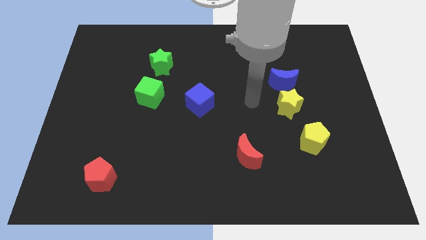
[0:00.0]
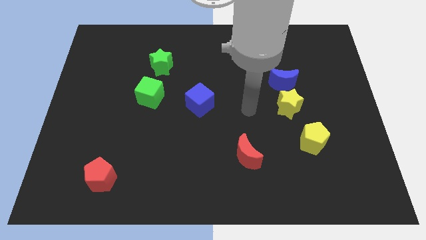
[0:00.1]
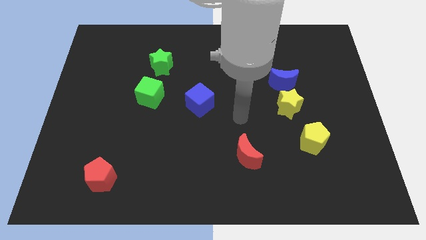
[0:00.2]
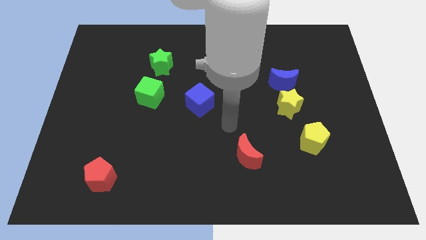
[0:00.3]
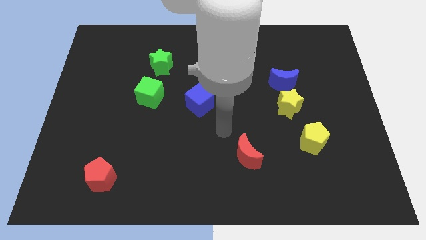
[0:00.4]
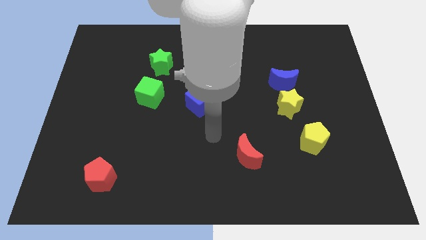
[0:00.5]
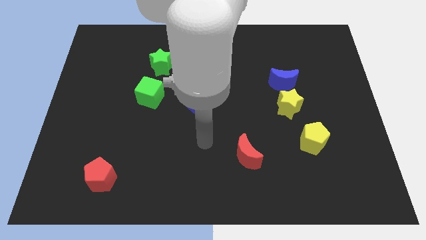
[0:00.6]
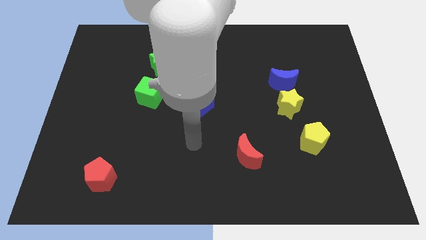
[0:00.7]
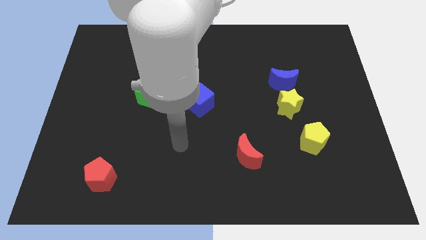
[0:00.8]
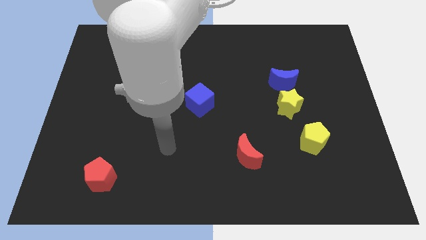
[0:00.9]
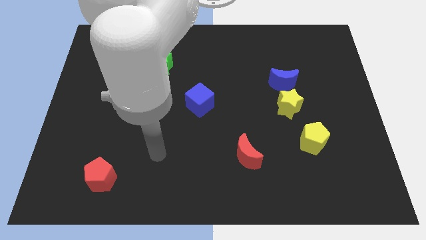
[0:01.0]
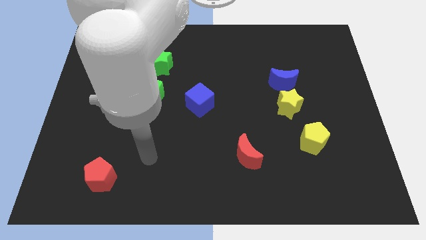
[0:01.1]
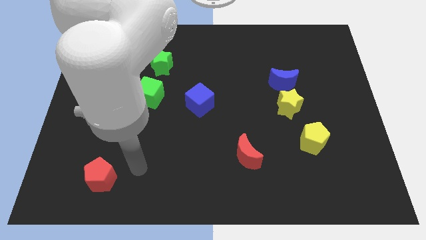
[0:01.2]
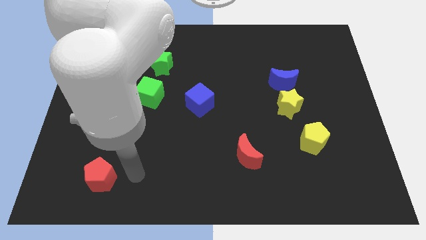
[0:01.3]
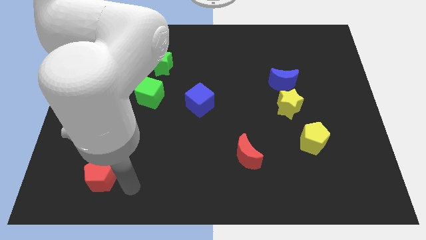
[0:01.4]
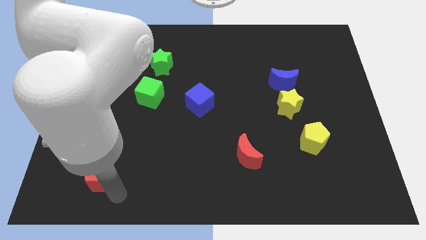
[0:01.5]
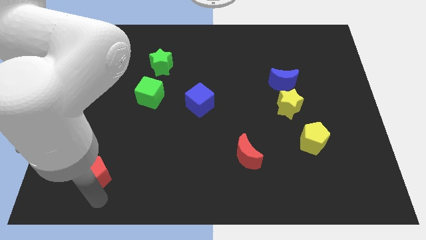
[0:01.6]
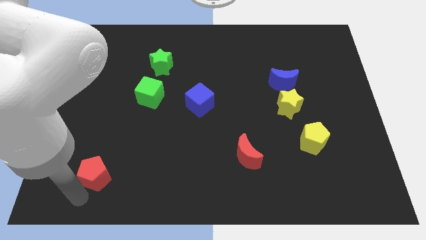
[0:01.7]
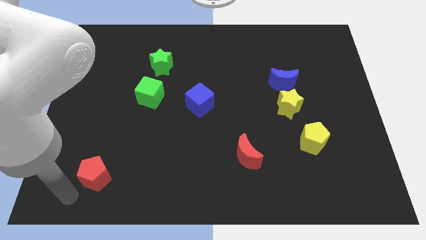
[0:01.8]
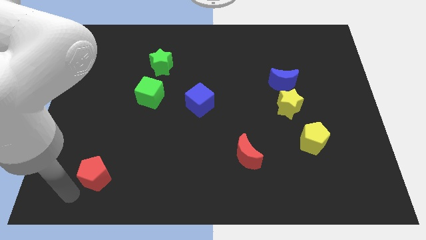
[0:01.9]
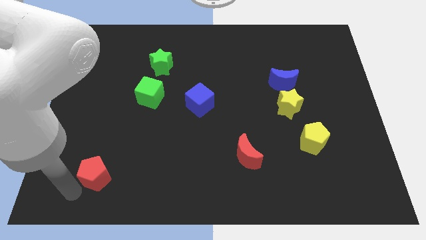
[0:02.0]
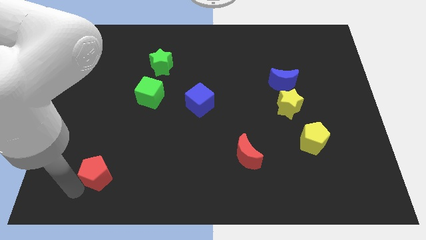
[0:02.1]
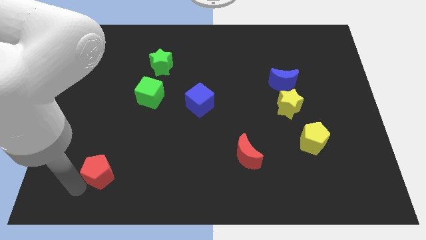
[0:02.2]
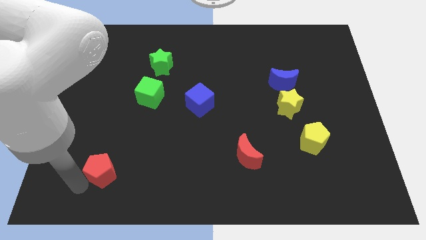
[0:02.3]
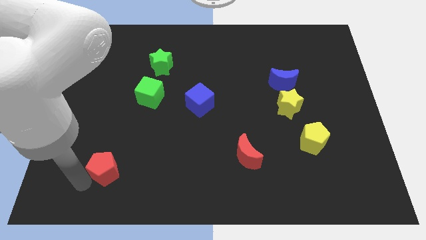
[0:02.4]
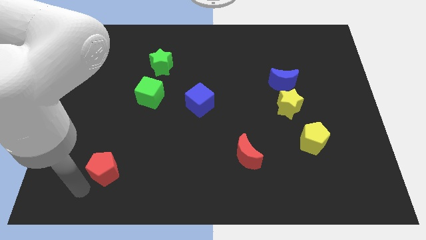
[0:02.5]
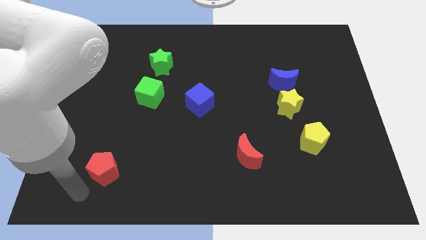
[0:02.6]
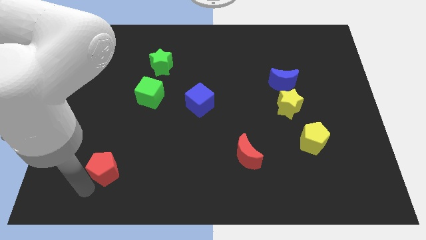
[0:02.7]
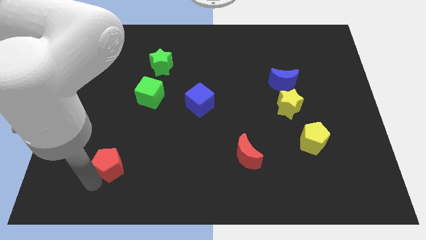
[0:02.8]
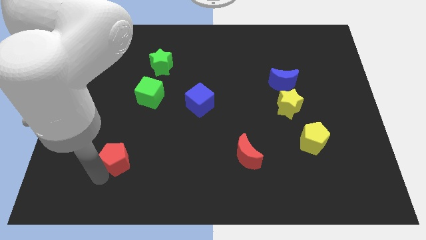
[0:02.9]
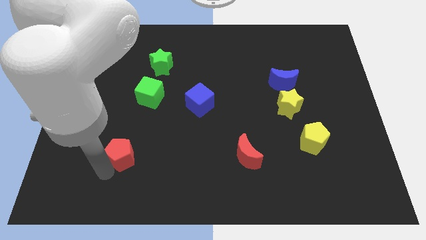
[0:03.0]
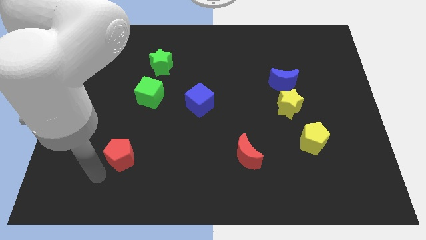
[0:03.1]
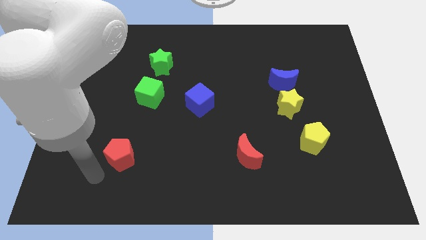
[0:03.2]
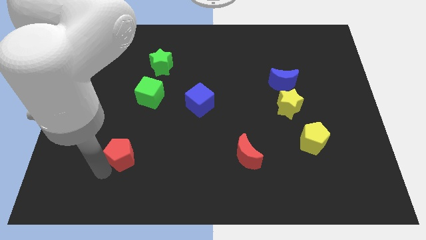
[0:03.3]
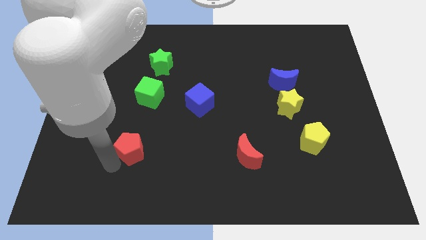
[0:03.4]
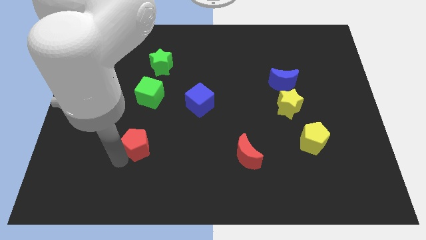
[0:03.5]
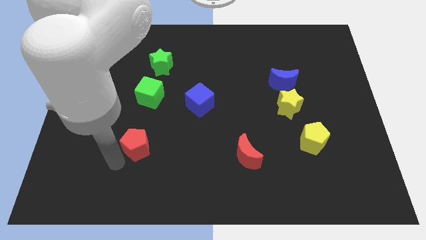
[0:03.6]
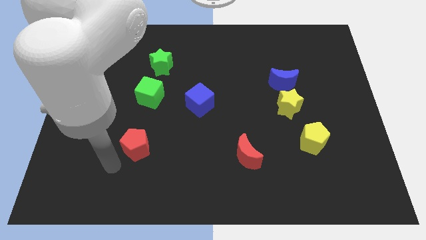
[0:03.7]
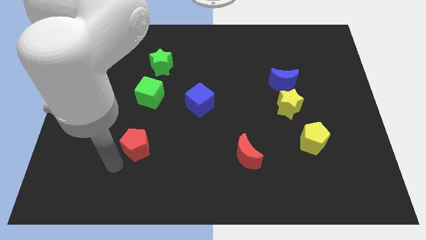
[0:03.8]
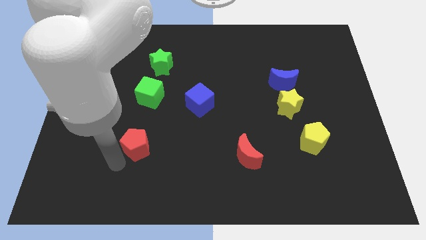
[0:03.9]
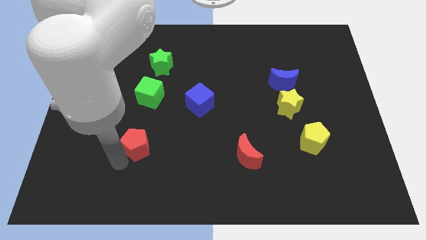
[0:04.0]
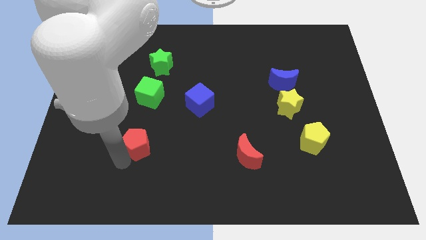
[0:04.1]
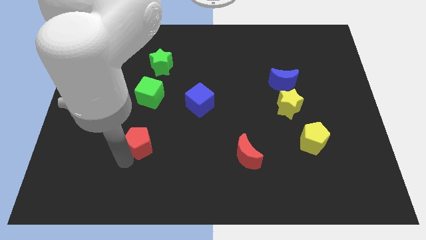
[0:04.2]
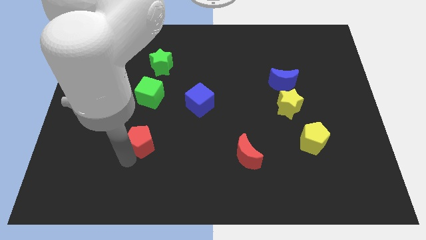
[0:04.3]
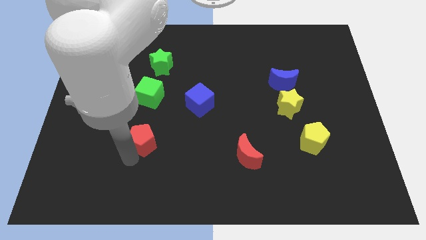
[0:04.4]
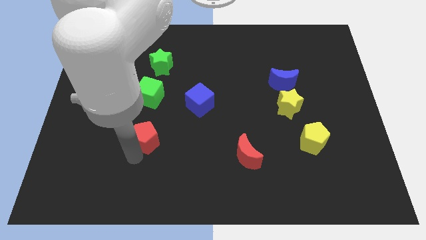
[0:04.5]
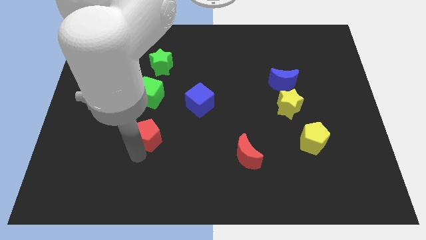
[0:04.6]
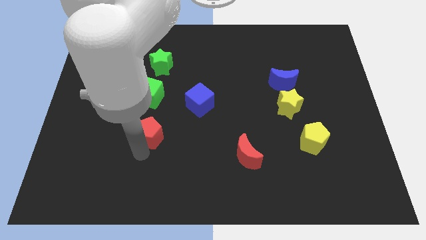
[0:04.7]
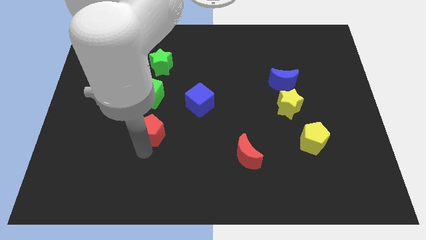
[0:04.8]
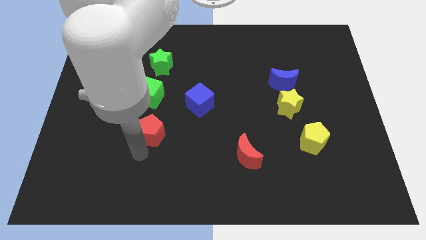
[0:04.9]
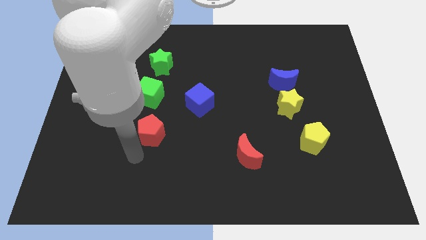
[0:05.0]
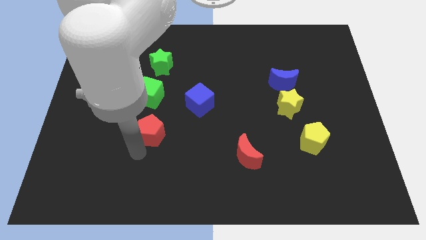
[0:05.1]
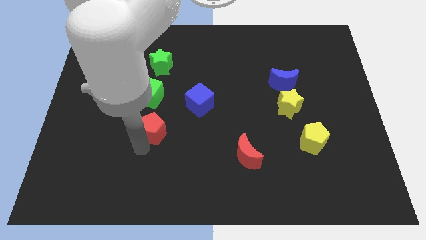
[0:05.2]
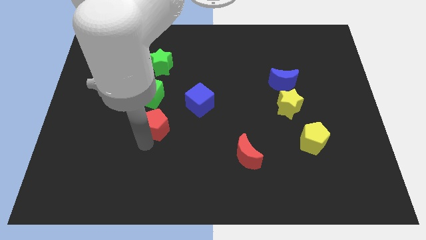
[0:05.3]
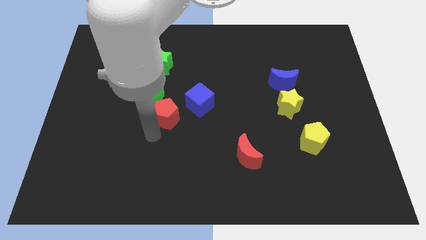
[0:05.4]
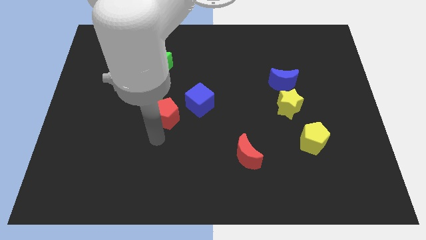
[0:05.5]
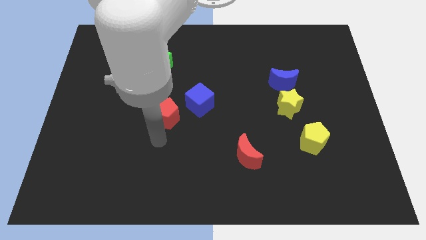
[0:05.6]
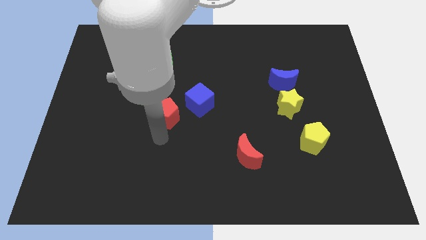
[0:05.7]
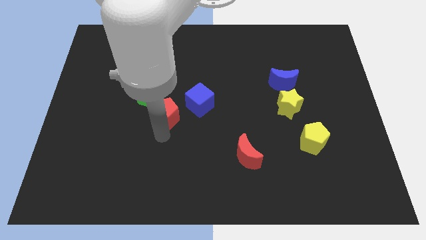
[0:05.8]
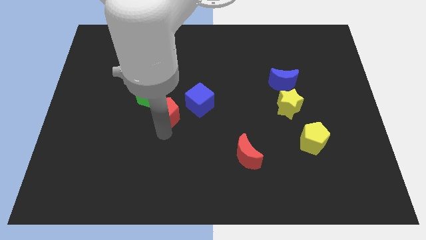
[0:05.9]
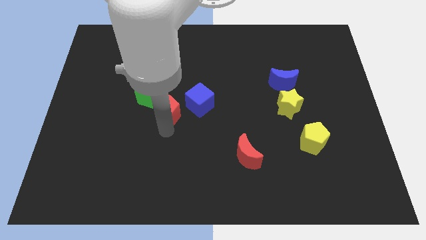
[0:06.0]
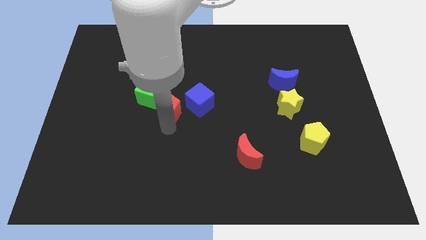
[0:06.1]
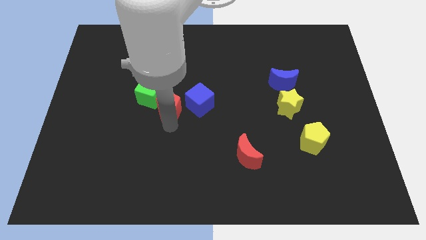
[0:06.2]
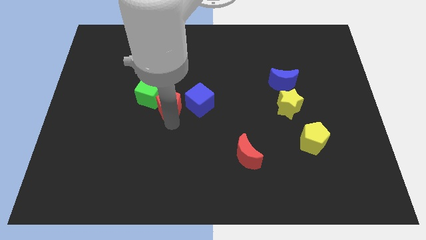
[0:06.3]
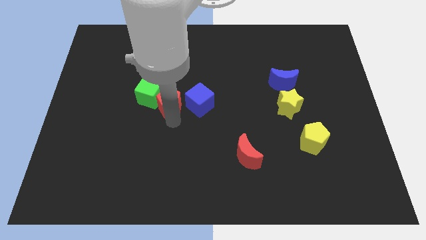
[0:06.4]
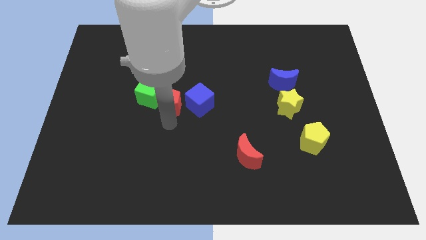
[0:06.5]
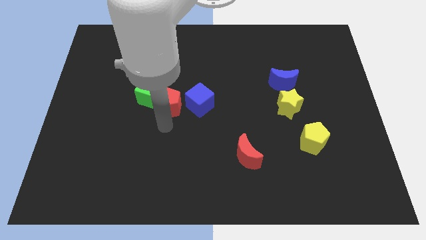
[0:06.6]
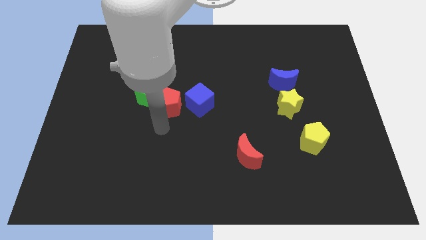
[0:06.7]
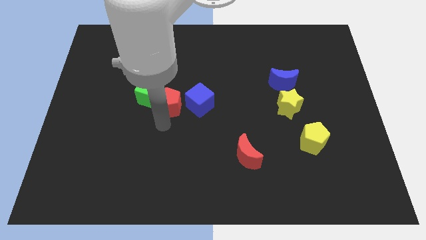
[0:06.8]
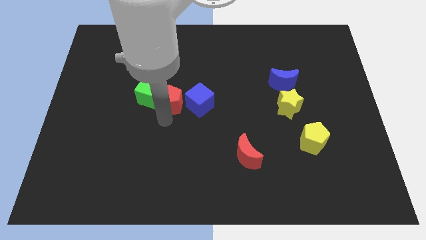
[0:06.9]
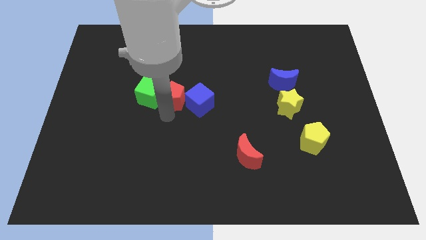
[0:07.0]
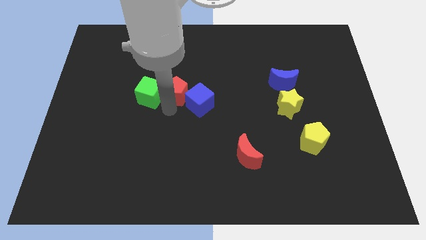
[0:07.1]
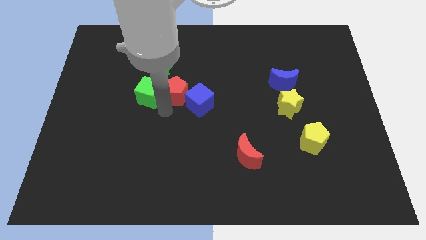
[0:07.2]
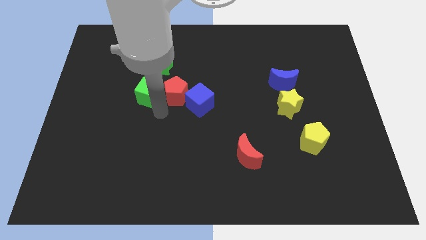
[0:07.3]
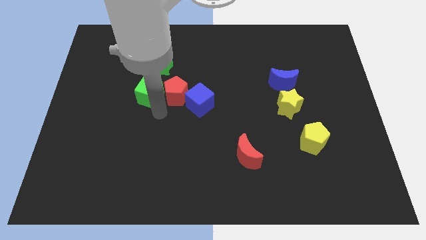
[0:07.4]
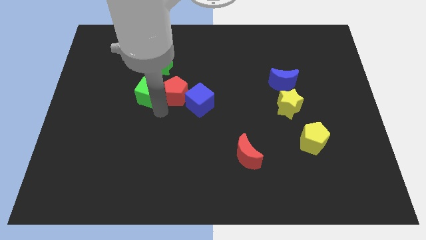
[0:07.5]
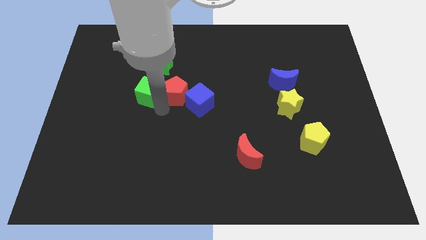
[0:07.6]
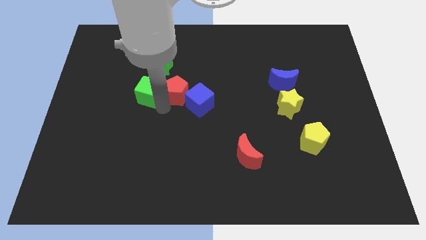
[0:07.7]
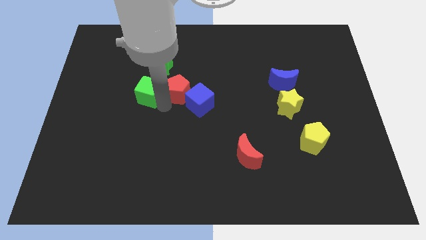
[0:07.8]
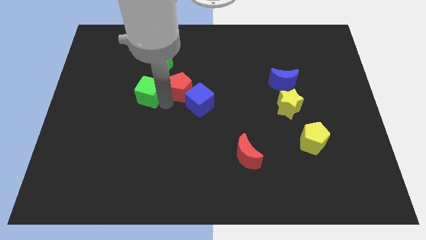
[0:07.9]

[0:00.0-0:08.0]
put the red pentagon to the top side of the blue cube

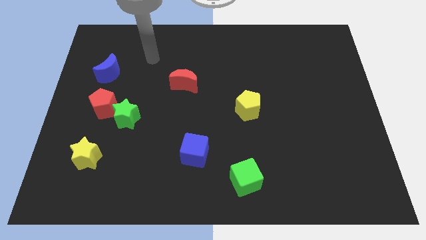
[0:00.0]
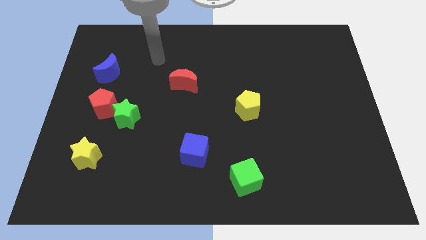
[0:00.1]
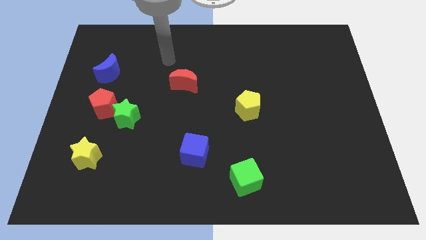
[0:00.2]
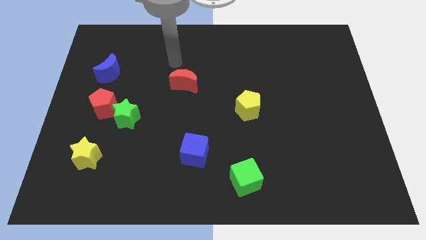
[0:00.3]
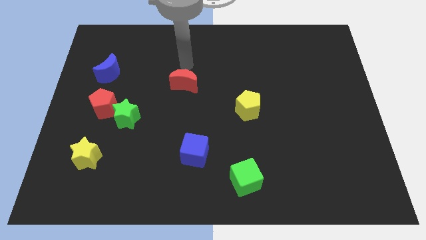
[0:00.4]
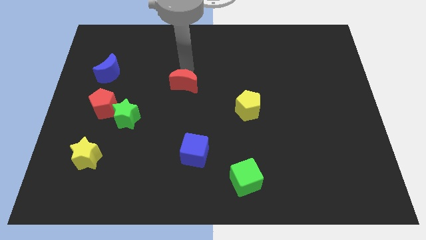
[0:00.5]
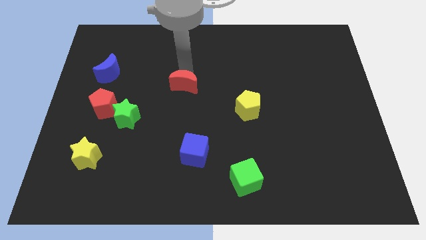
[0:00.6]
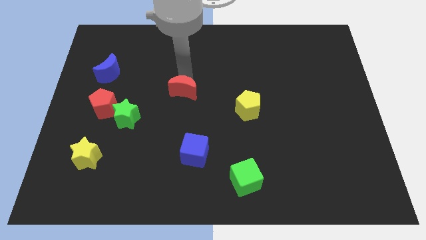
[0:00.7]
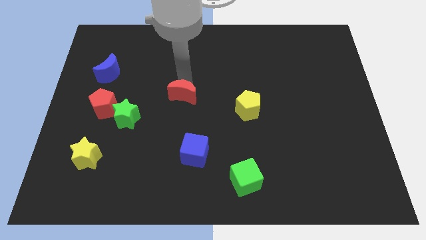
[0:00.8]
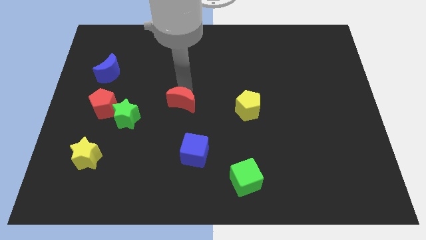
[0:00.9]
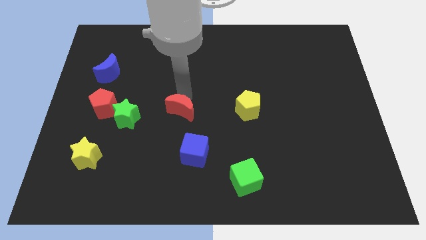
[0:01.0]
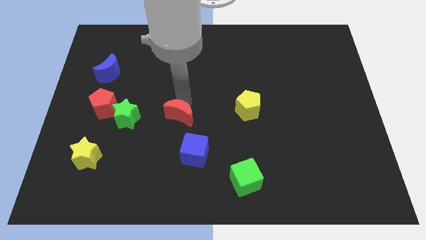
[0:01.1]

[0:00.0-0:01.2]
put the red moon to the top left side of the blue cube
